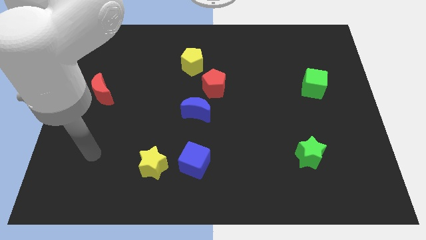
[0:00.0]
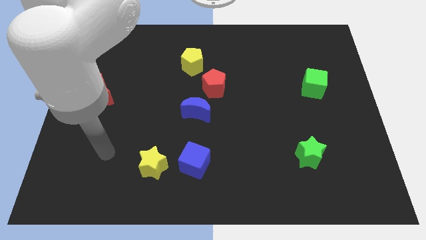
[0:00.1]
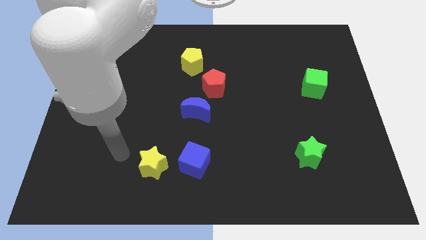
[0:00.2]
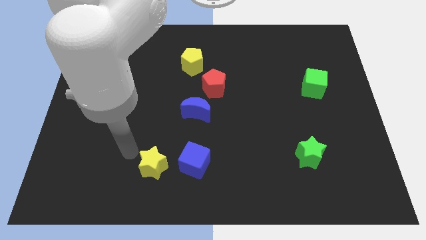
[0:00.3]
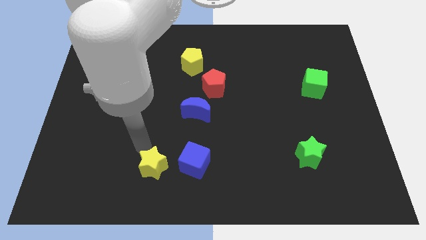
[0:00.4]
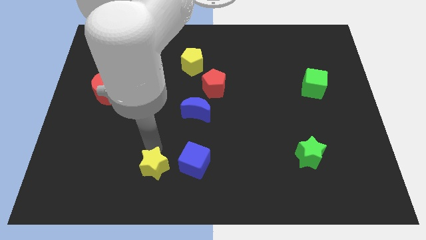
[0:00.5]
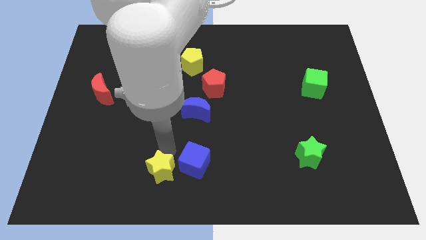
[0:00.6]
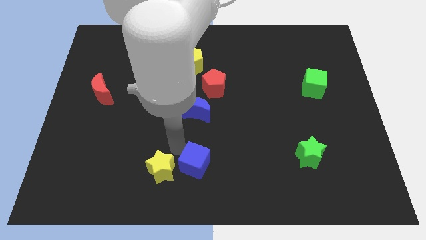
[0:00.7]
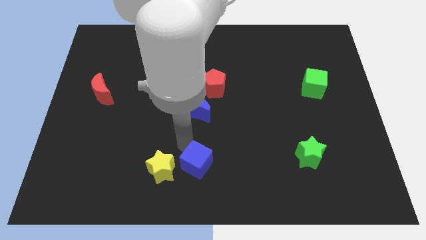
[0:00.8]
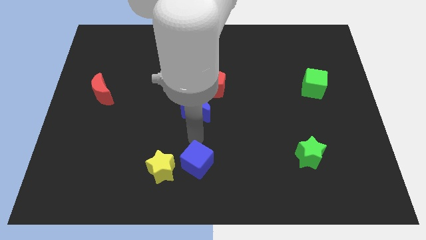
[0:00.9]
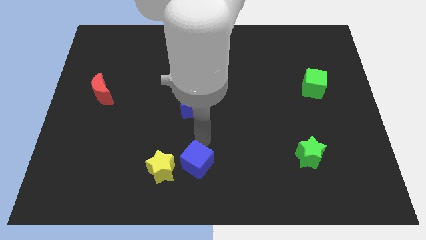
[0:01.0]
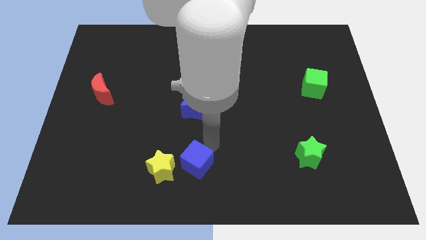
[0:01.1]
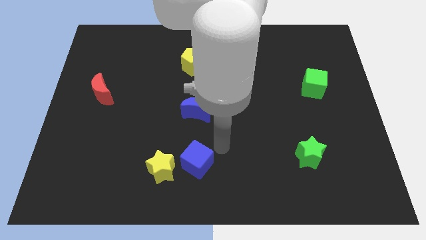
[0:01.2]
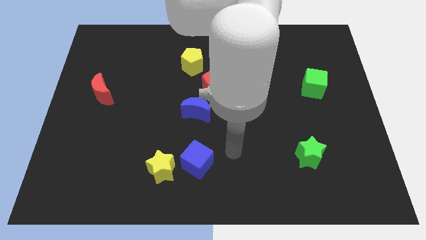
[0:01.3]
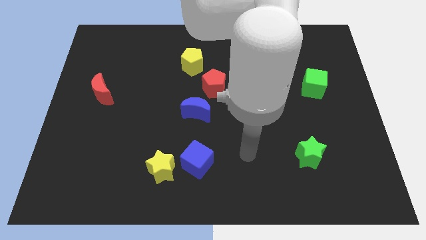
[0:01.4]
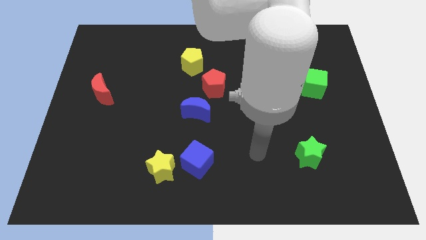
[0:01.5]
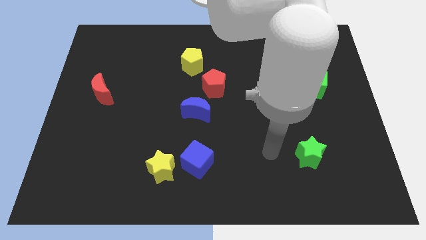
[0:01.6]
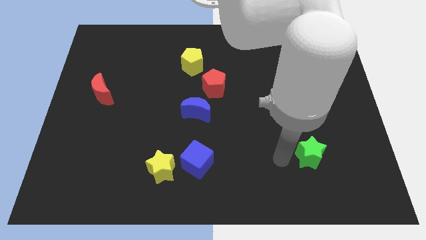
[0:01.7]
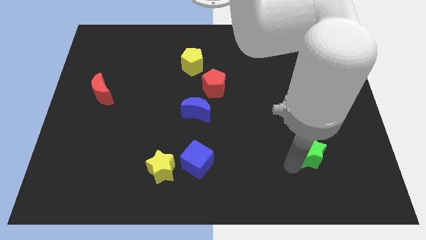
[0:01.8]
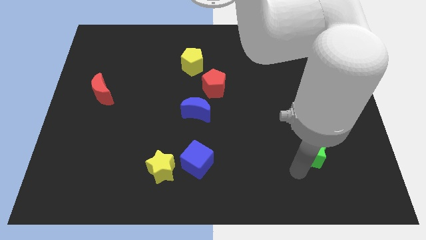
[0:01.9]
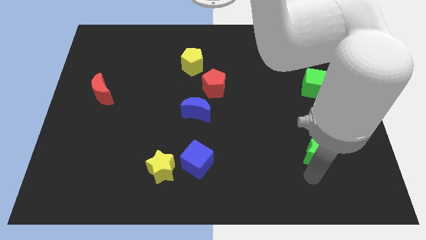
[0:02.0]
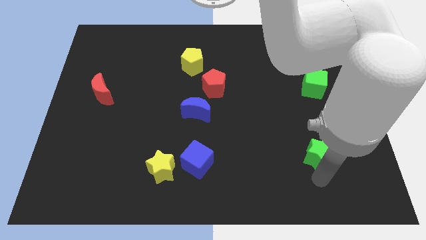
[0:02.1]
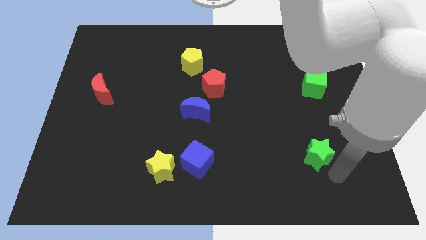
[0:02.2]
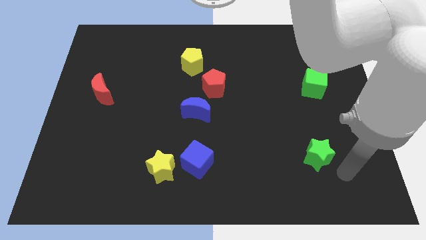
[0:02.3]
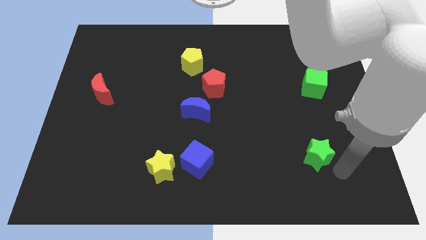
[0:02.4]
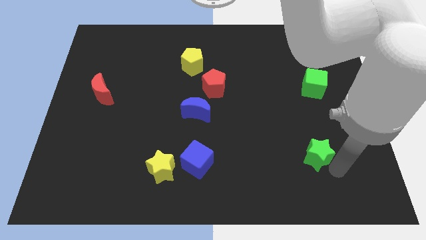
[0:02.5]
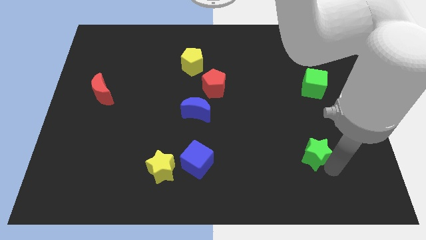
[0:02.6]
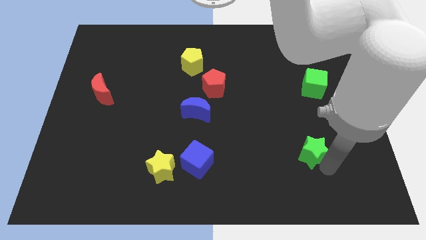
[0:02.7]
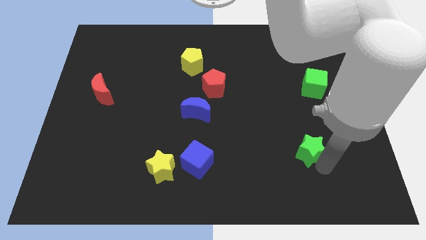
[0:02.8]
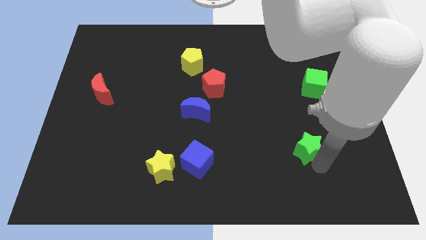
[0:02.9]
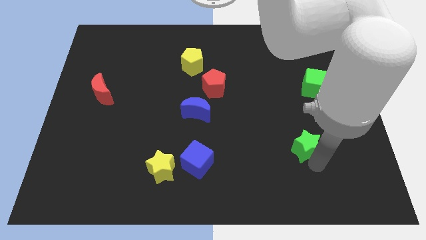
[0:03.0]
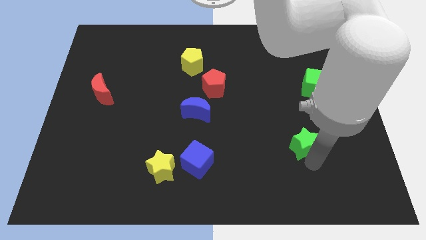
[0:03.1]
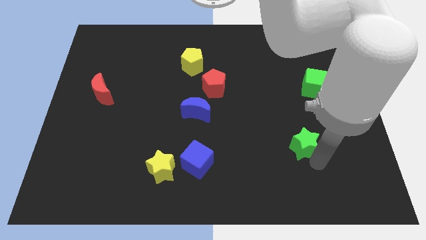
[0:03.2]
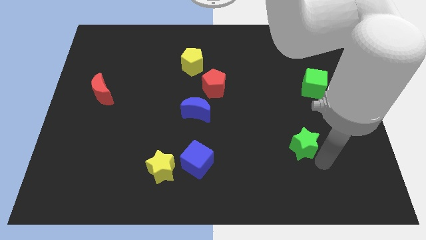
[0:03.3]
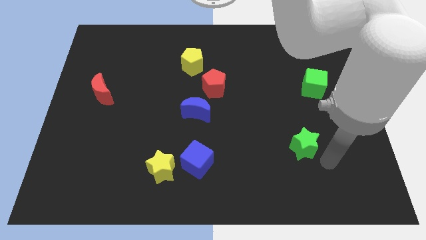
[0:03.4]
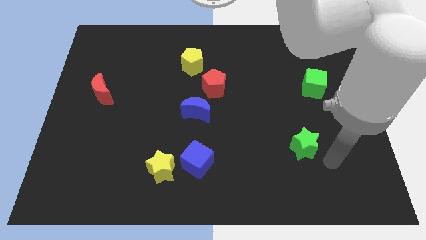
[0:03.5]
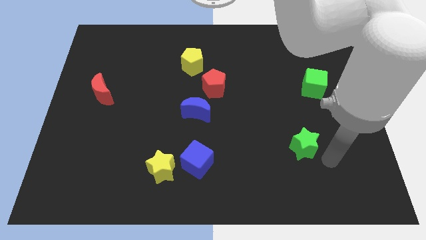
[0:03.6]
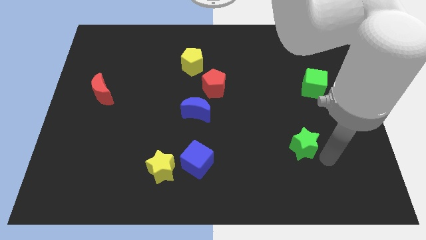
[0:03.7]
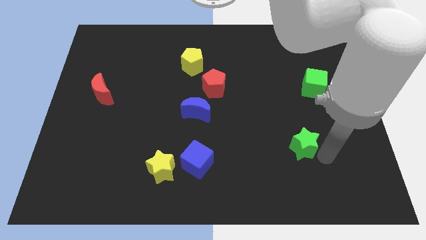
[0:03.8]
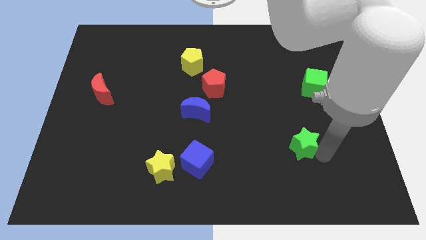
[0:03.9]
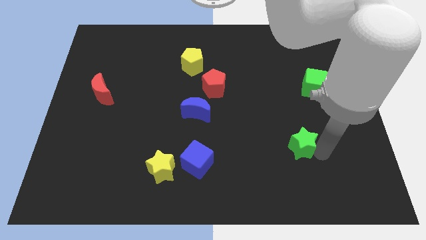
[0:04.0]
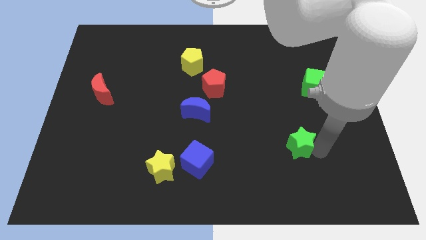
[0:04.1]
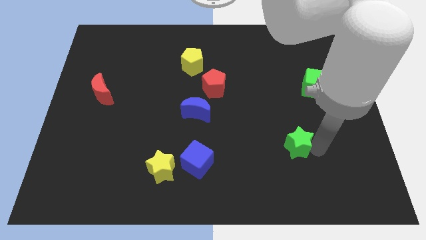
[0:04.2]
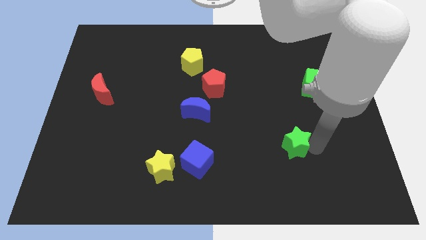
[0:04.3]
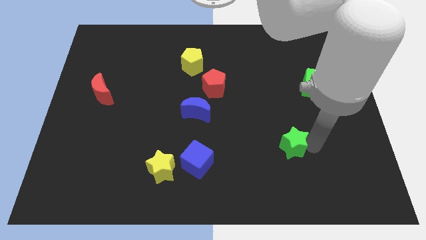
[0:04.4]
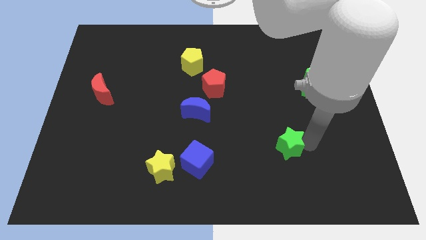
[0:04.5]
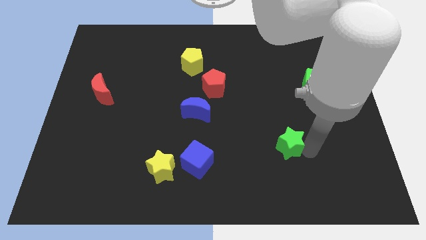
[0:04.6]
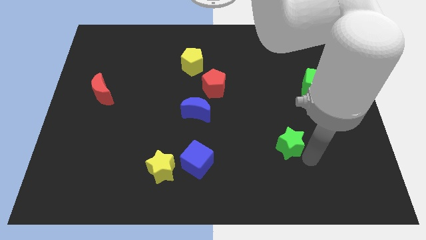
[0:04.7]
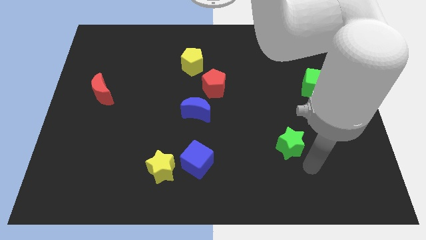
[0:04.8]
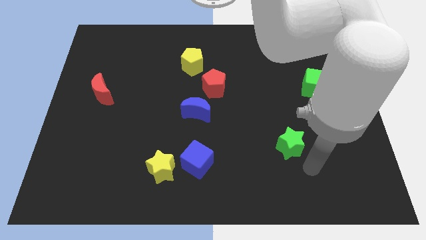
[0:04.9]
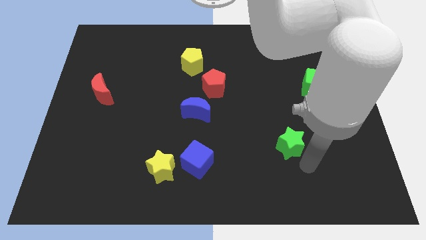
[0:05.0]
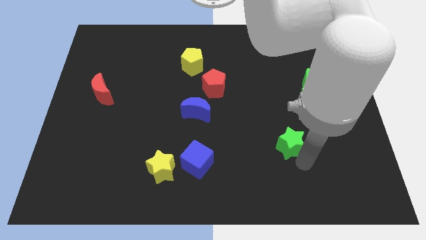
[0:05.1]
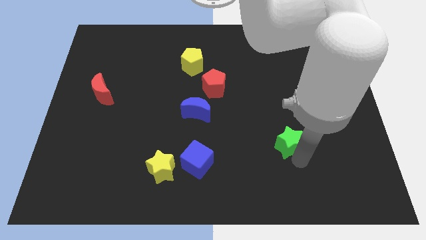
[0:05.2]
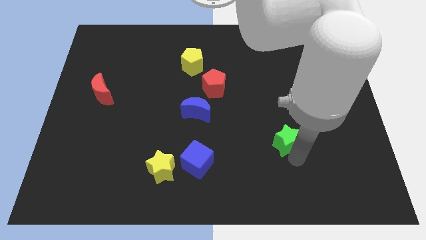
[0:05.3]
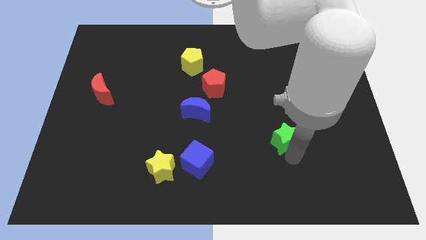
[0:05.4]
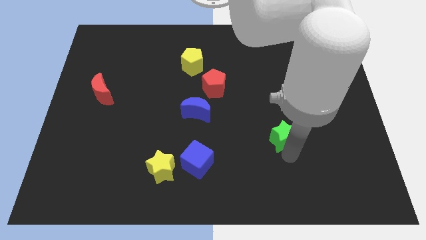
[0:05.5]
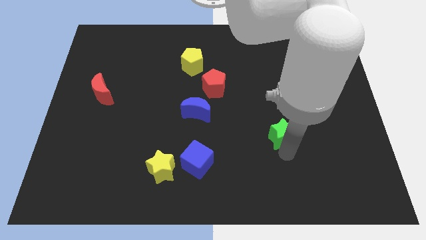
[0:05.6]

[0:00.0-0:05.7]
push the green star somewhat diagonally upwards and left

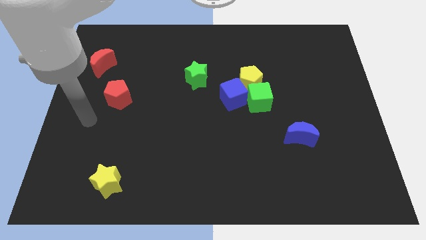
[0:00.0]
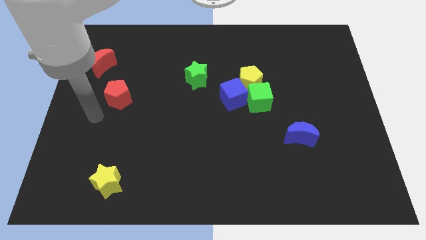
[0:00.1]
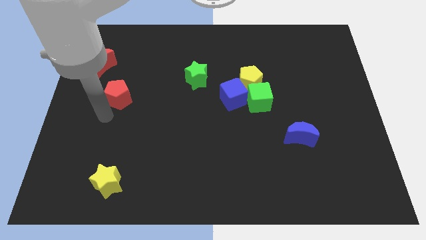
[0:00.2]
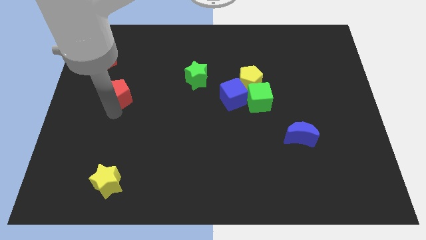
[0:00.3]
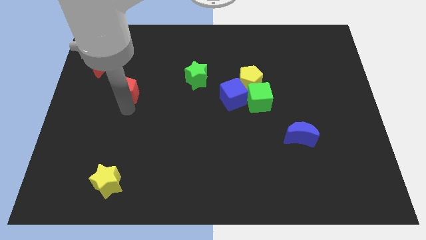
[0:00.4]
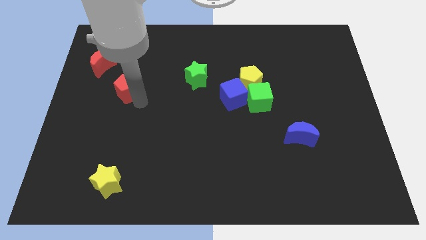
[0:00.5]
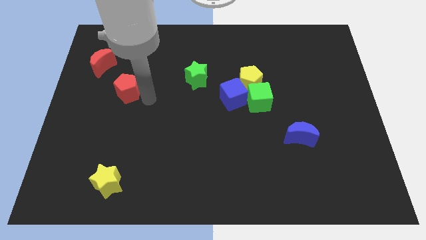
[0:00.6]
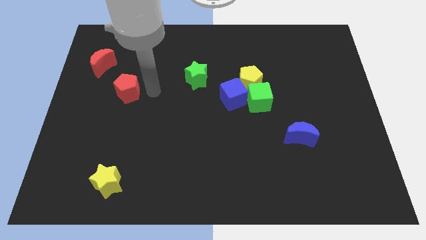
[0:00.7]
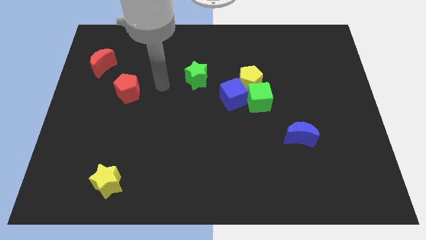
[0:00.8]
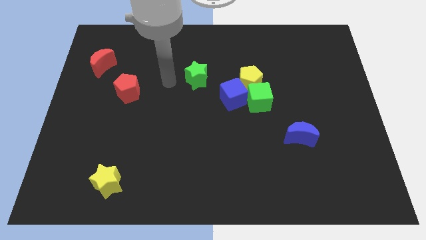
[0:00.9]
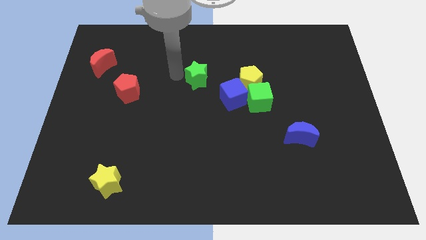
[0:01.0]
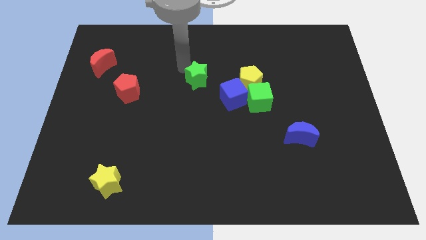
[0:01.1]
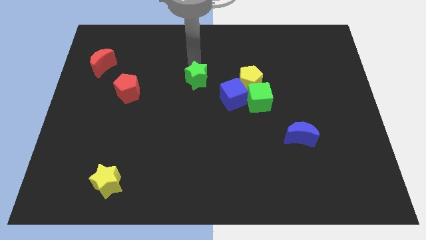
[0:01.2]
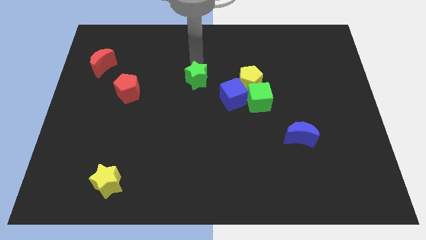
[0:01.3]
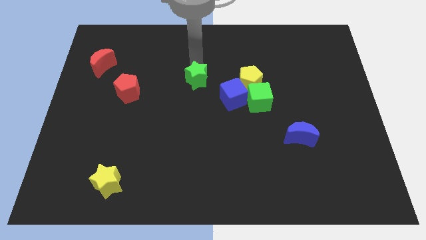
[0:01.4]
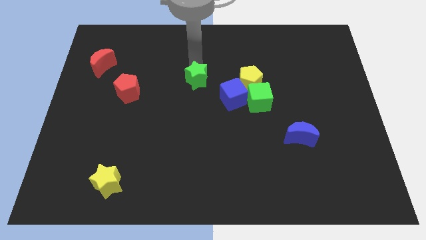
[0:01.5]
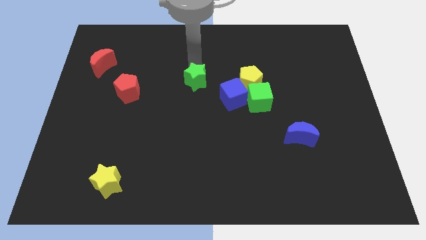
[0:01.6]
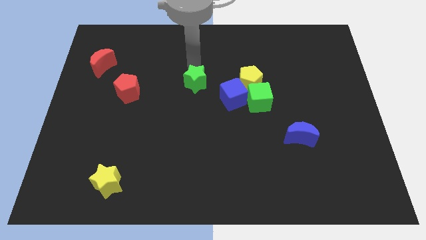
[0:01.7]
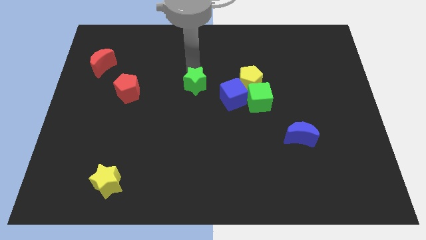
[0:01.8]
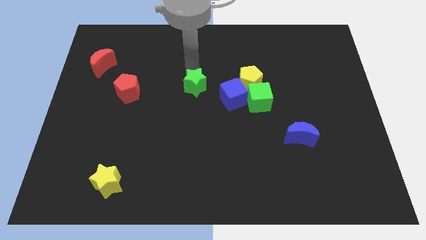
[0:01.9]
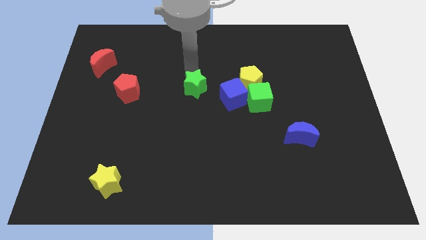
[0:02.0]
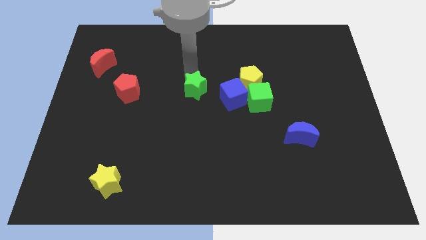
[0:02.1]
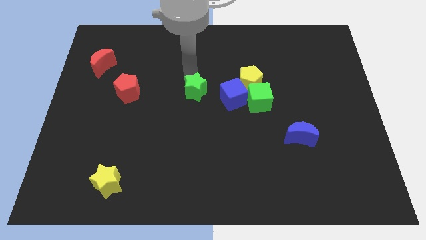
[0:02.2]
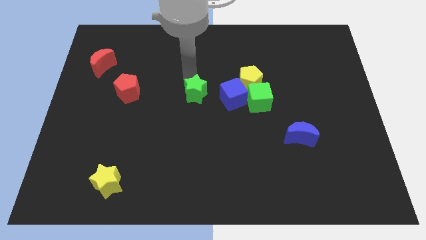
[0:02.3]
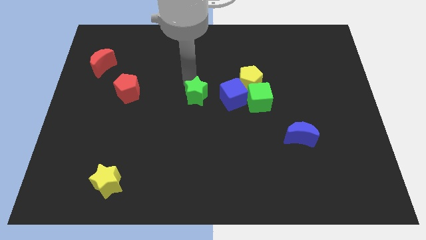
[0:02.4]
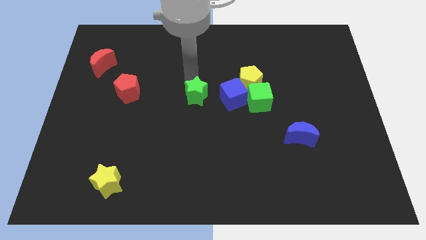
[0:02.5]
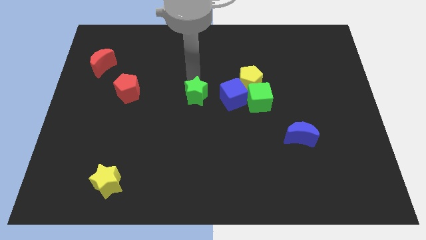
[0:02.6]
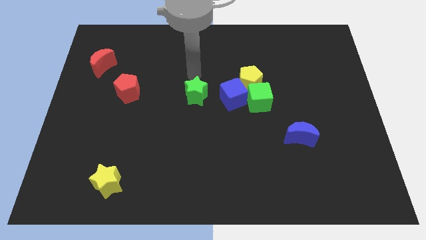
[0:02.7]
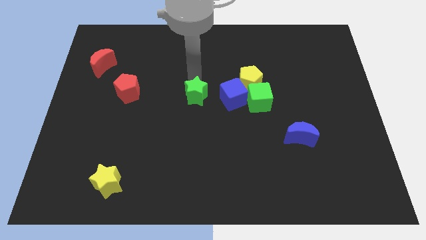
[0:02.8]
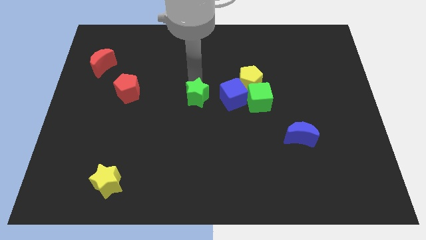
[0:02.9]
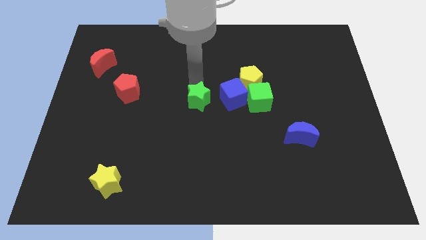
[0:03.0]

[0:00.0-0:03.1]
push the green star down a little bit
